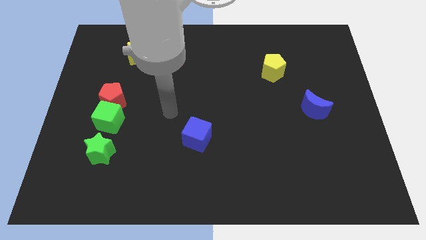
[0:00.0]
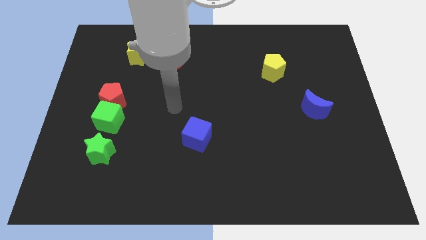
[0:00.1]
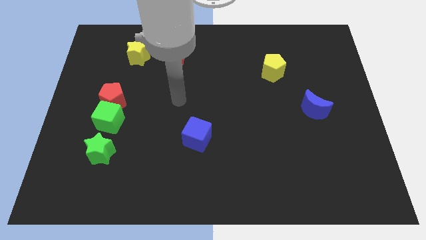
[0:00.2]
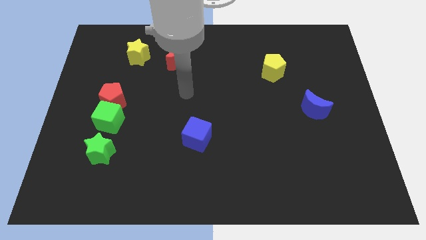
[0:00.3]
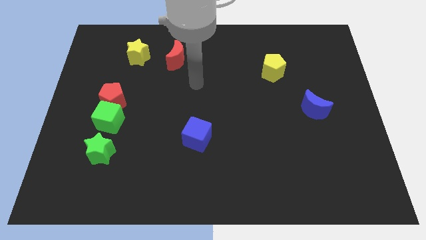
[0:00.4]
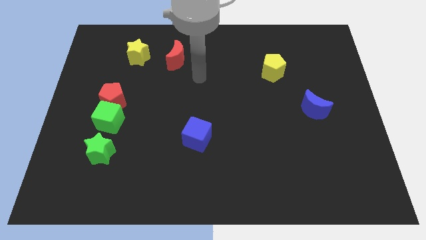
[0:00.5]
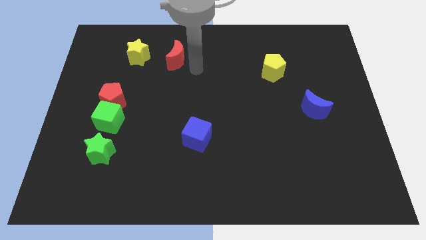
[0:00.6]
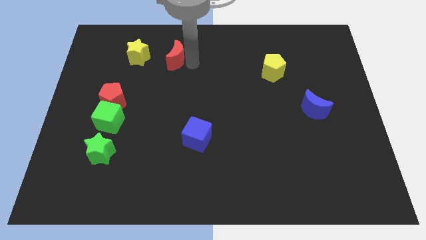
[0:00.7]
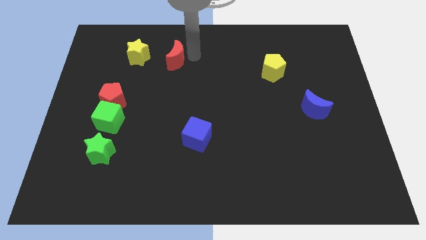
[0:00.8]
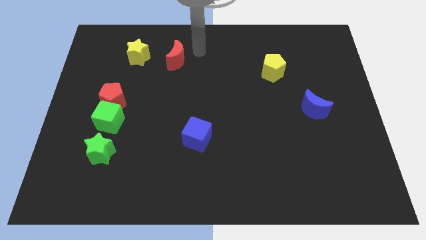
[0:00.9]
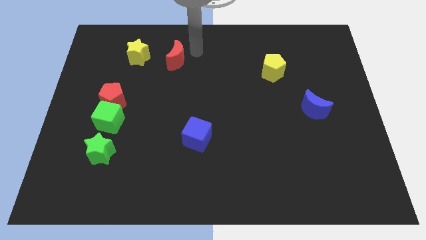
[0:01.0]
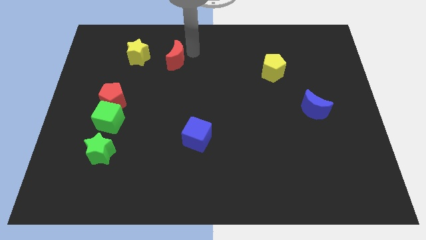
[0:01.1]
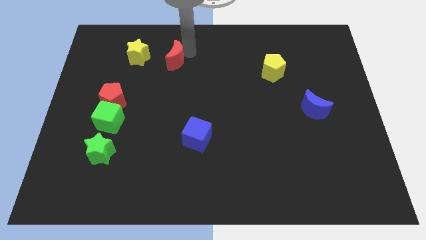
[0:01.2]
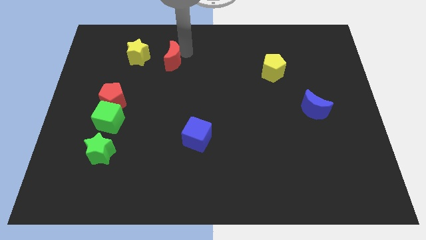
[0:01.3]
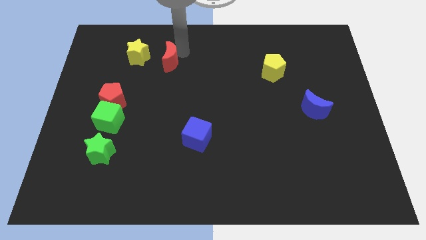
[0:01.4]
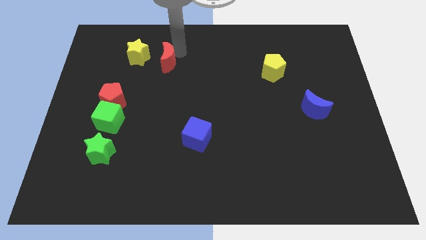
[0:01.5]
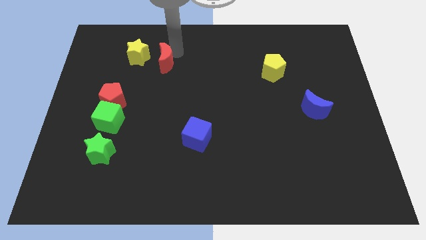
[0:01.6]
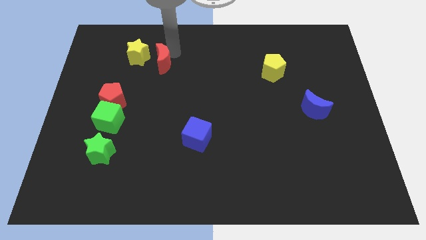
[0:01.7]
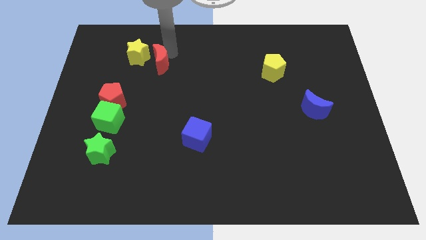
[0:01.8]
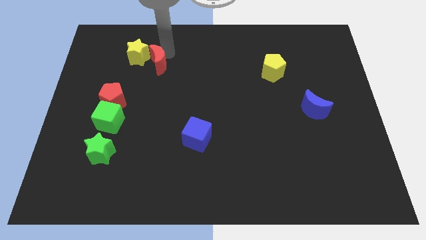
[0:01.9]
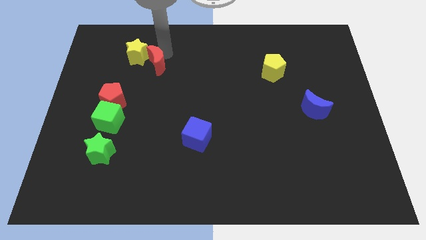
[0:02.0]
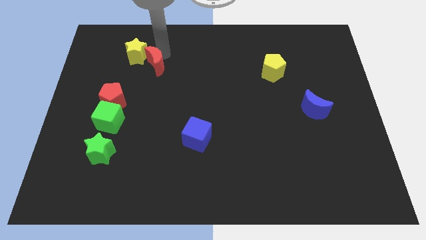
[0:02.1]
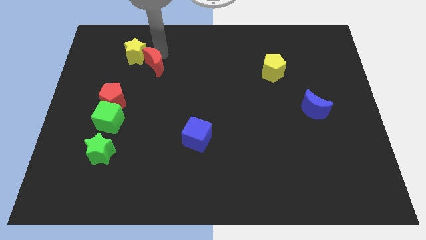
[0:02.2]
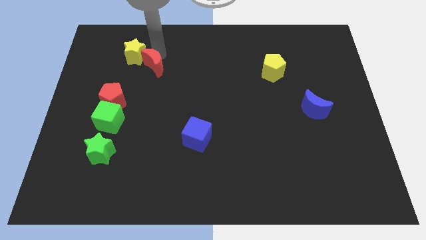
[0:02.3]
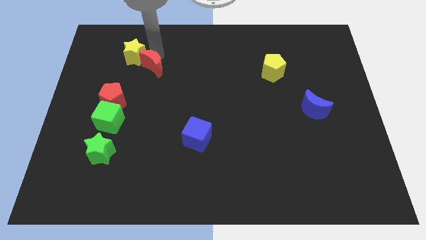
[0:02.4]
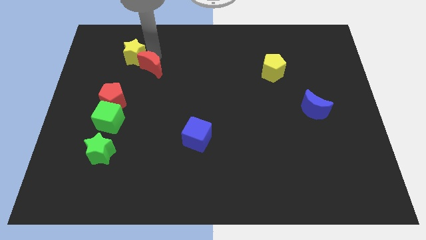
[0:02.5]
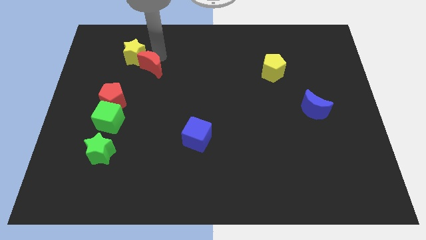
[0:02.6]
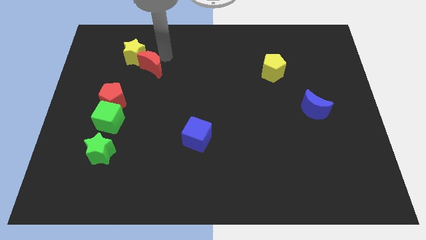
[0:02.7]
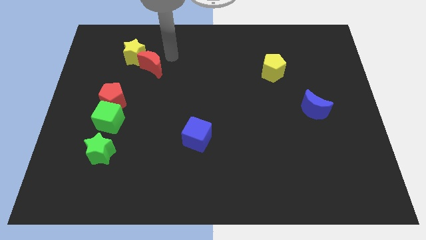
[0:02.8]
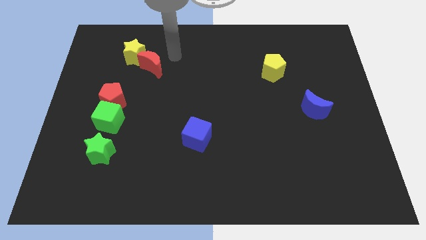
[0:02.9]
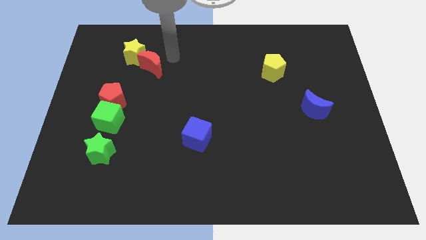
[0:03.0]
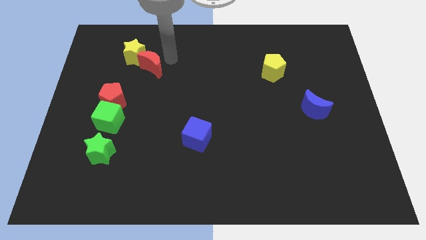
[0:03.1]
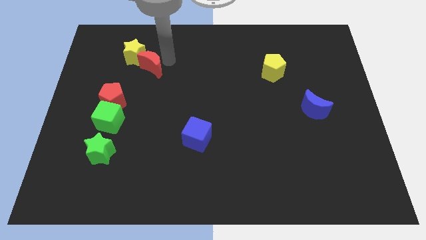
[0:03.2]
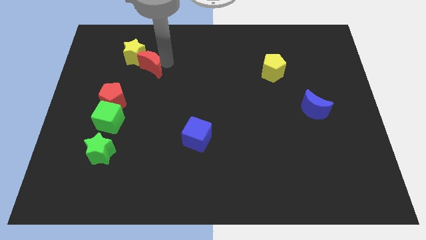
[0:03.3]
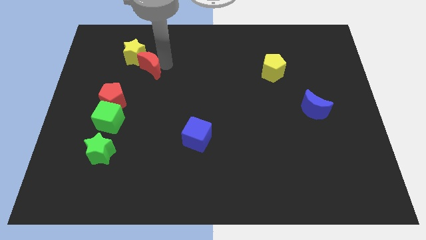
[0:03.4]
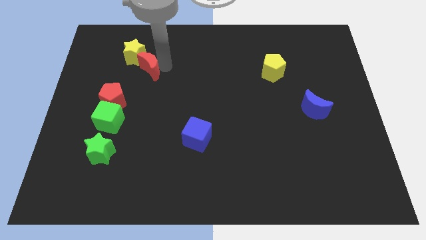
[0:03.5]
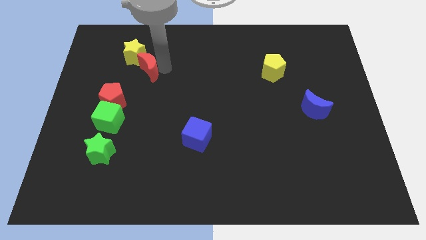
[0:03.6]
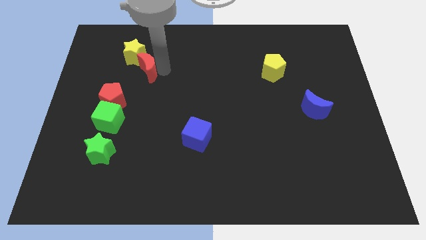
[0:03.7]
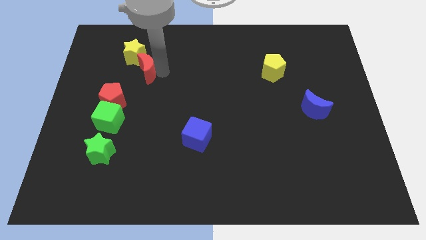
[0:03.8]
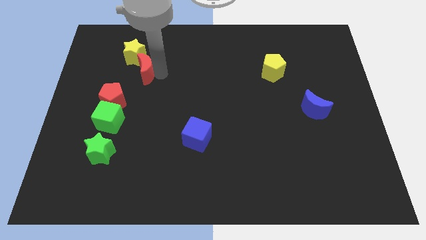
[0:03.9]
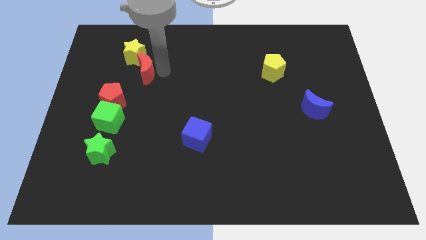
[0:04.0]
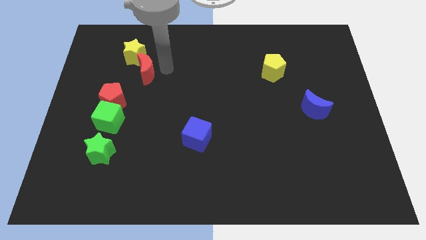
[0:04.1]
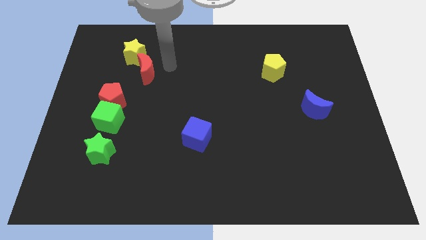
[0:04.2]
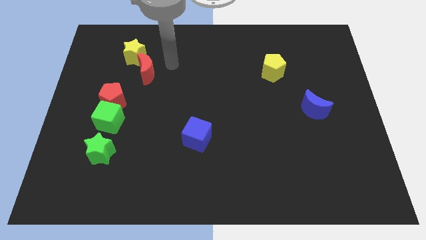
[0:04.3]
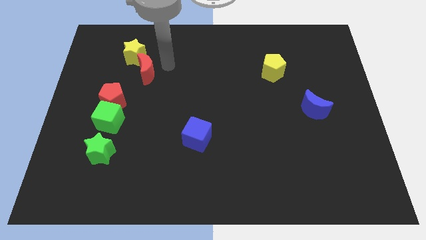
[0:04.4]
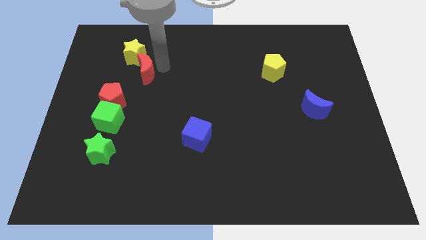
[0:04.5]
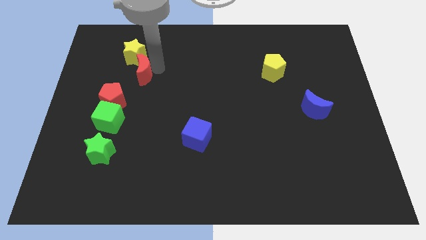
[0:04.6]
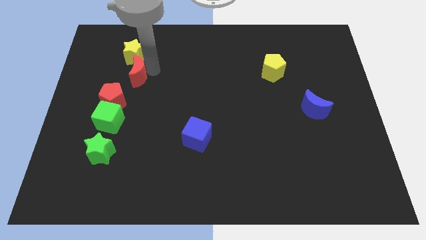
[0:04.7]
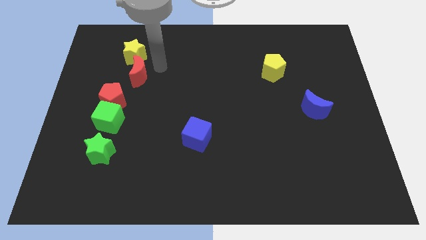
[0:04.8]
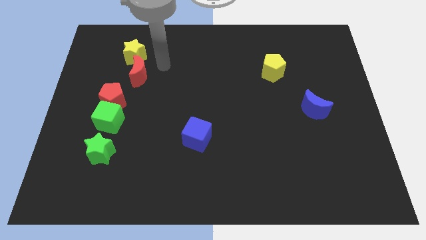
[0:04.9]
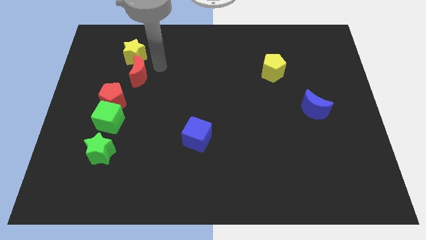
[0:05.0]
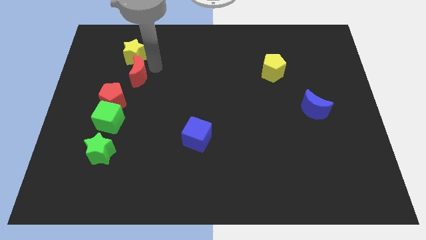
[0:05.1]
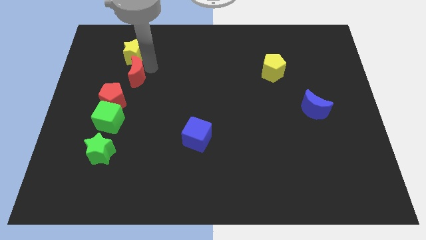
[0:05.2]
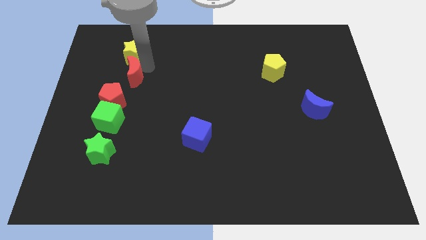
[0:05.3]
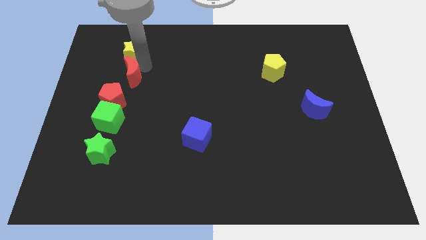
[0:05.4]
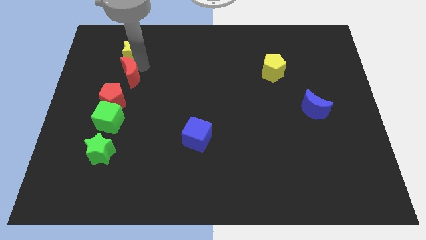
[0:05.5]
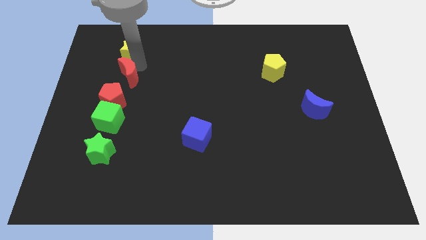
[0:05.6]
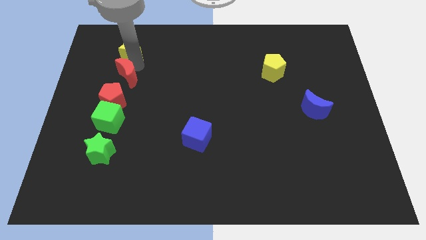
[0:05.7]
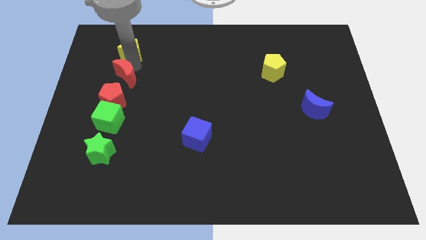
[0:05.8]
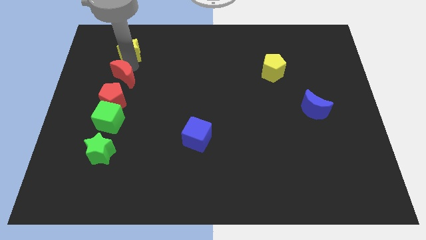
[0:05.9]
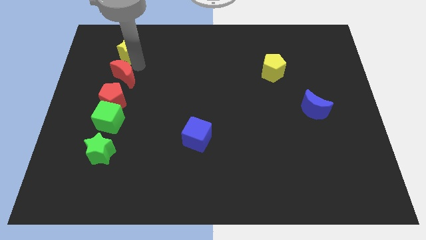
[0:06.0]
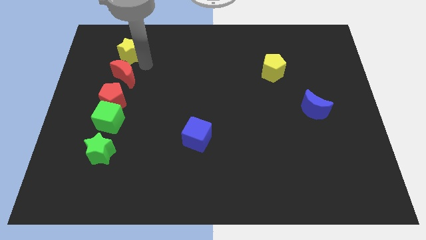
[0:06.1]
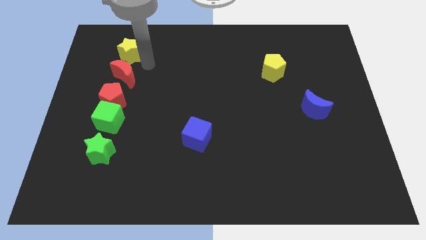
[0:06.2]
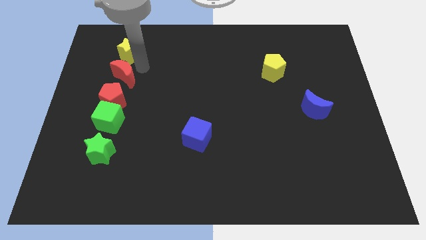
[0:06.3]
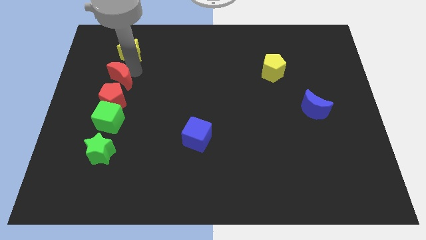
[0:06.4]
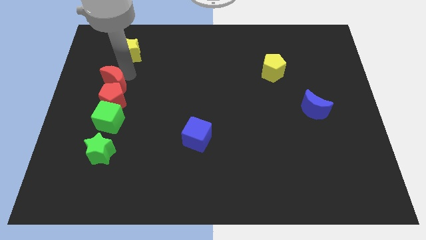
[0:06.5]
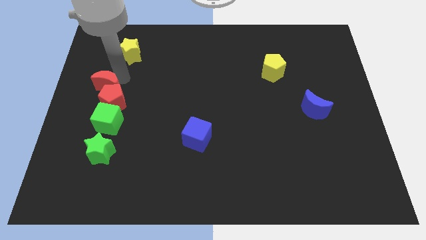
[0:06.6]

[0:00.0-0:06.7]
put the red moon to the left side of the board
